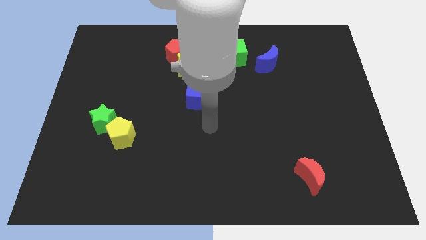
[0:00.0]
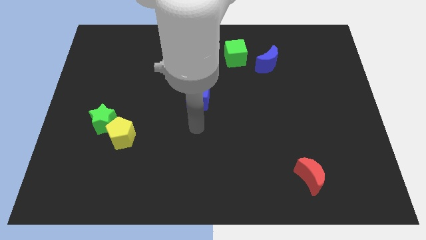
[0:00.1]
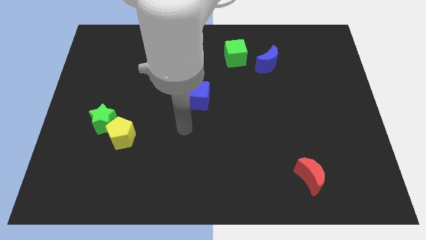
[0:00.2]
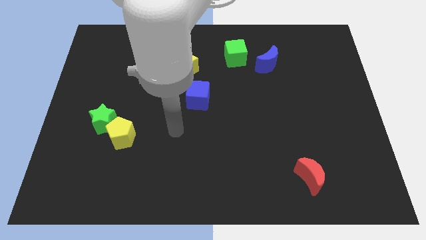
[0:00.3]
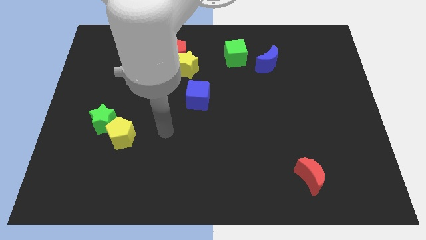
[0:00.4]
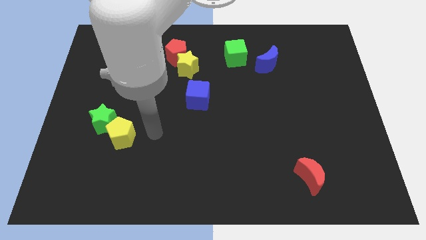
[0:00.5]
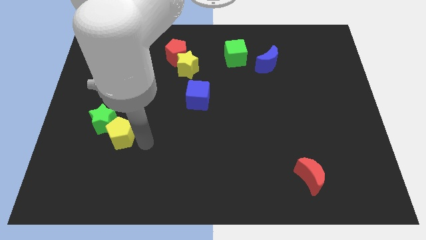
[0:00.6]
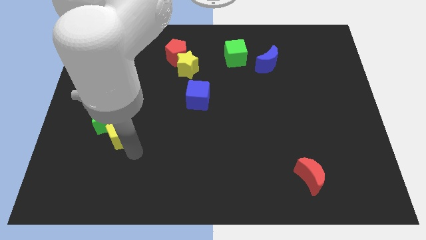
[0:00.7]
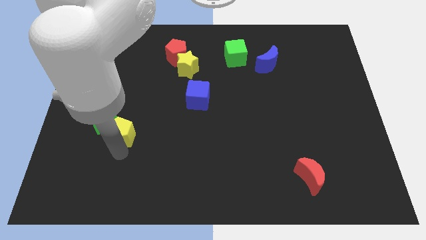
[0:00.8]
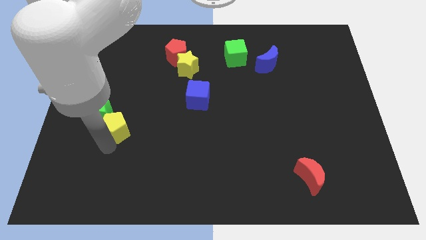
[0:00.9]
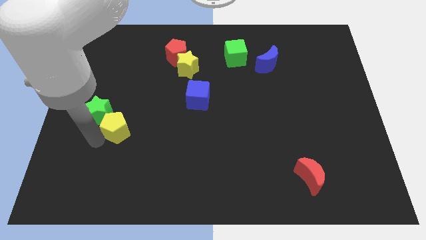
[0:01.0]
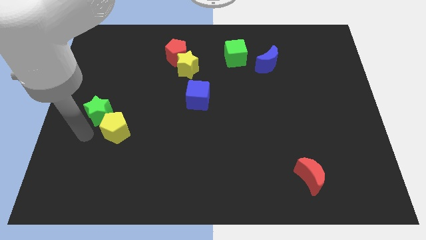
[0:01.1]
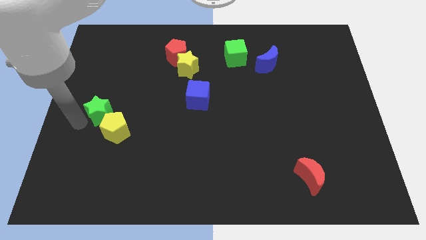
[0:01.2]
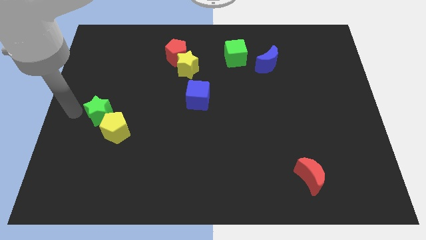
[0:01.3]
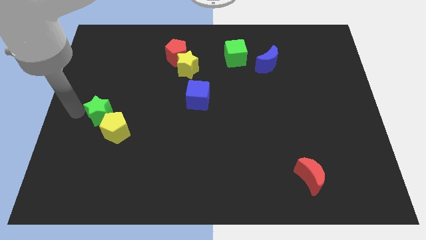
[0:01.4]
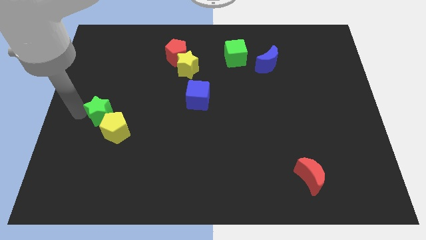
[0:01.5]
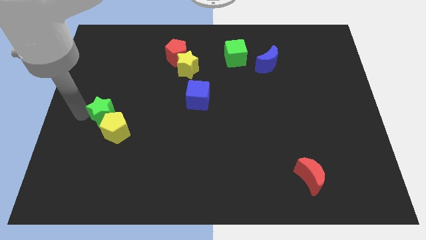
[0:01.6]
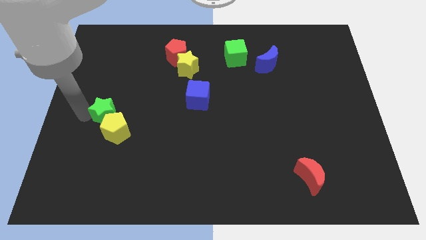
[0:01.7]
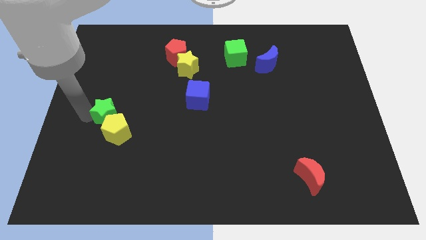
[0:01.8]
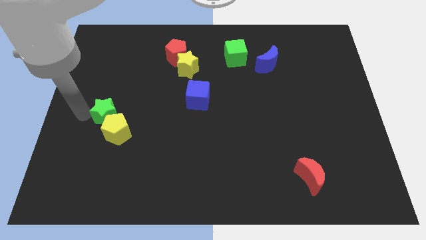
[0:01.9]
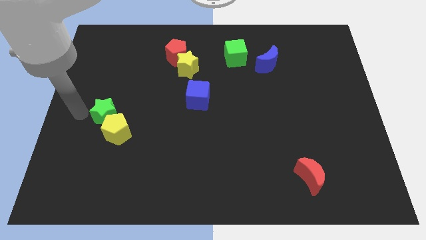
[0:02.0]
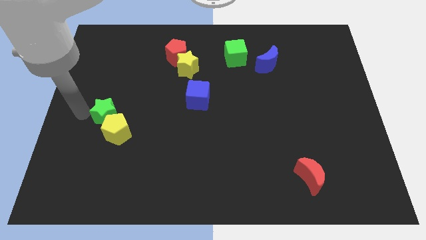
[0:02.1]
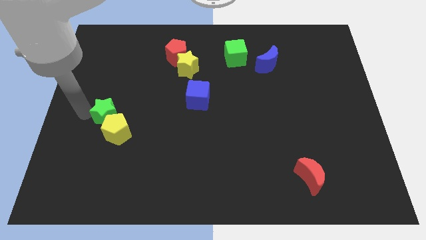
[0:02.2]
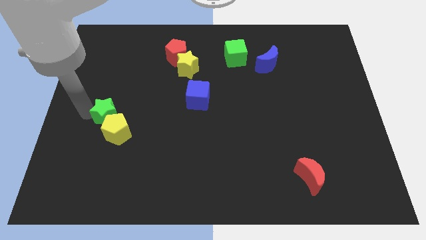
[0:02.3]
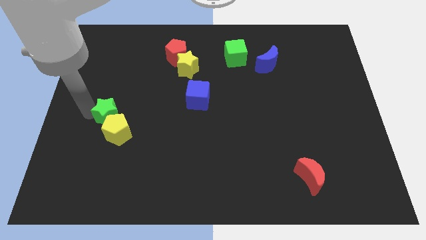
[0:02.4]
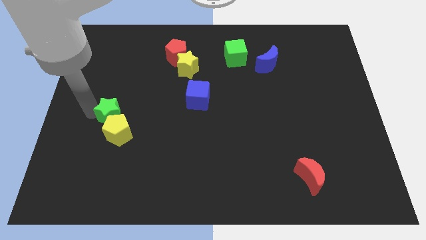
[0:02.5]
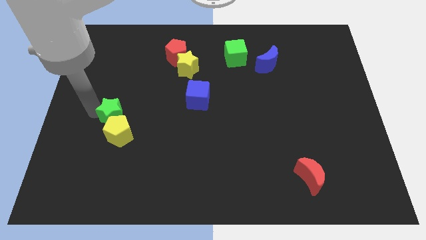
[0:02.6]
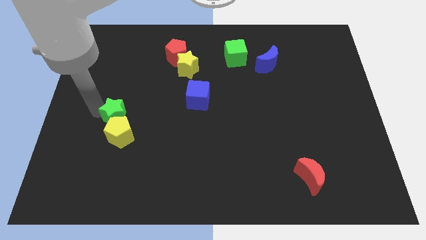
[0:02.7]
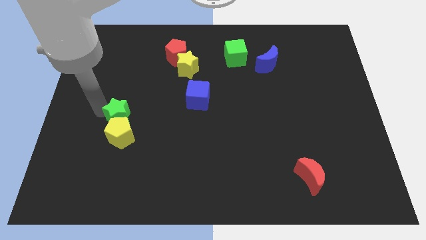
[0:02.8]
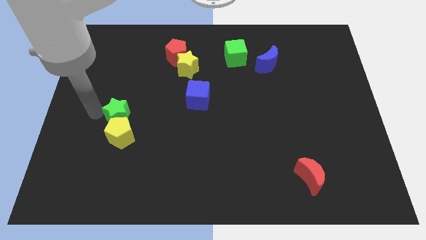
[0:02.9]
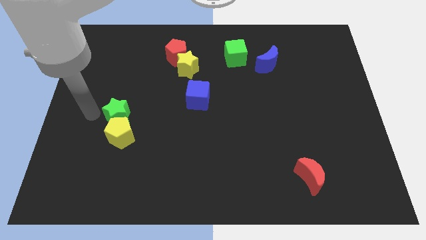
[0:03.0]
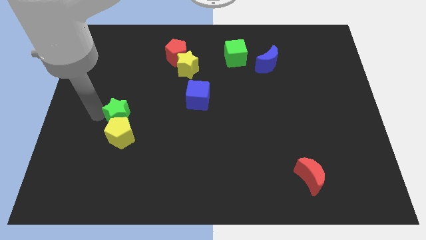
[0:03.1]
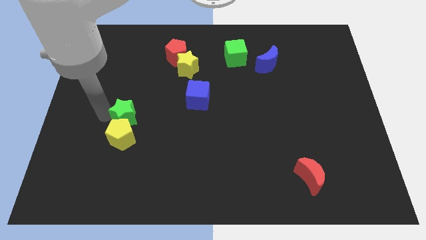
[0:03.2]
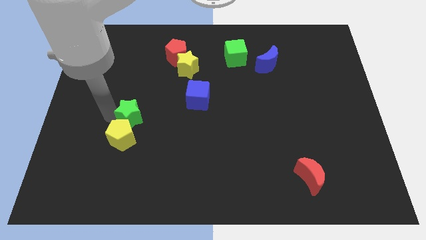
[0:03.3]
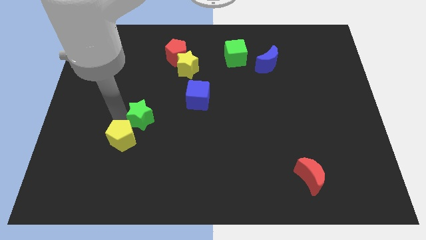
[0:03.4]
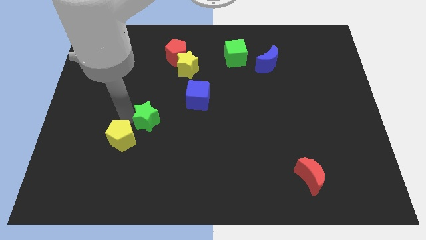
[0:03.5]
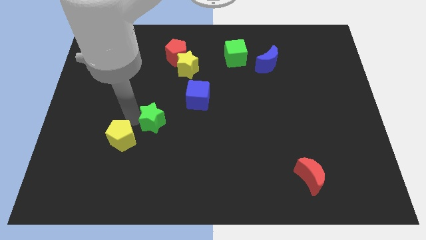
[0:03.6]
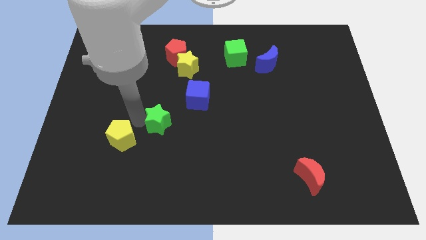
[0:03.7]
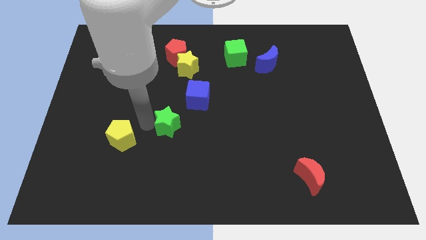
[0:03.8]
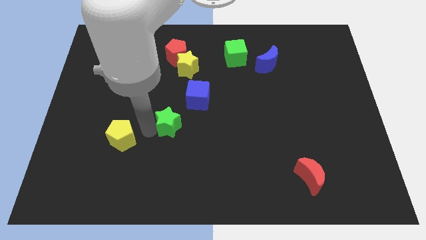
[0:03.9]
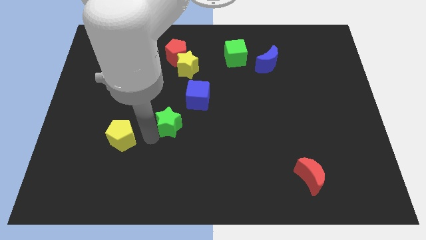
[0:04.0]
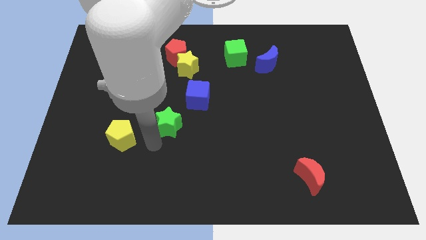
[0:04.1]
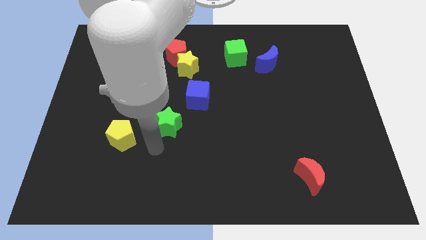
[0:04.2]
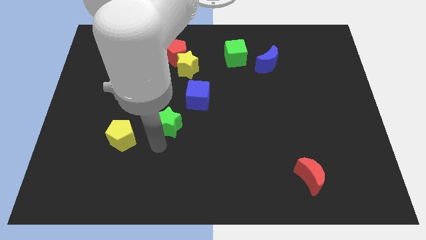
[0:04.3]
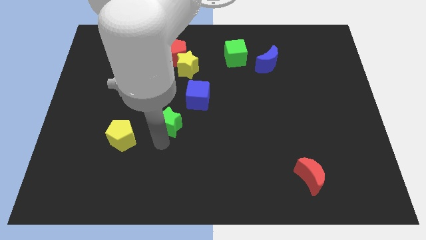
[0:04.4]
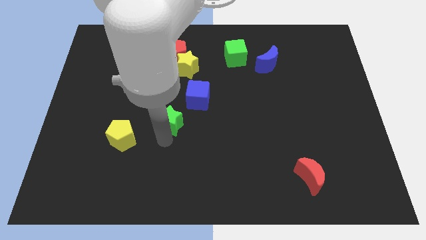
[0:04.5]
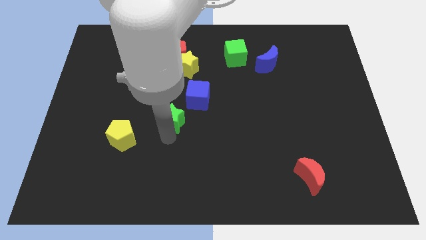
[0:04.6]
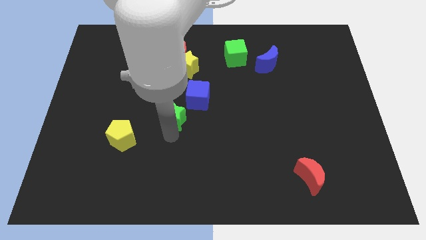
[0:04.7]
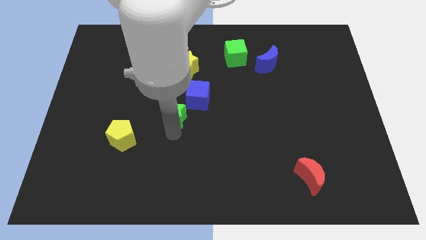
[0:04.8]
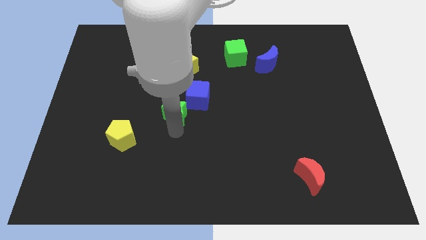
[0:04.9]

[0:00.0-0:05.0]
move the green star to the bottom side of the yellow star
